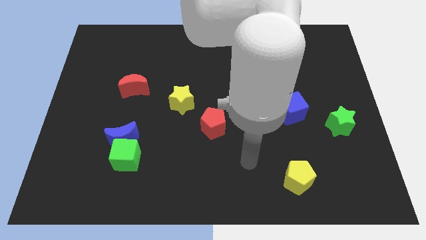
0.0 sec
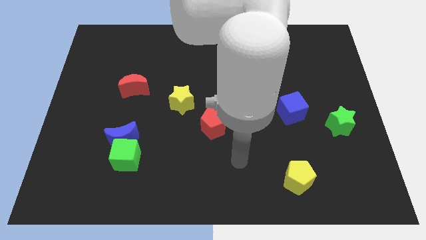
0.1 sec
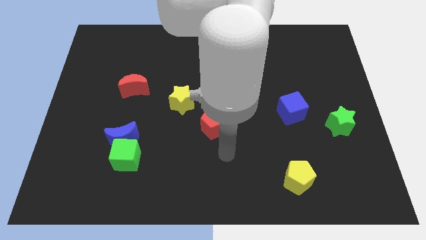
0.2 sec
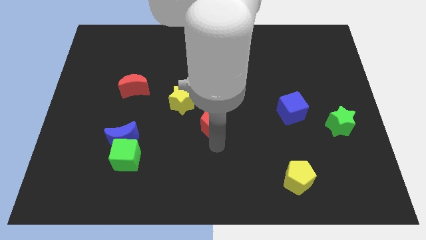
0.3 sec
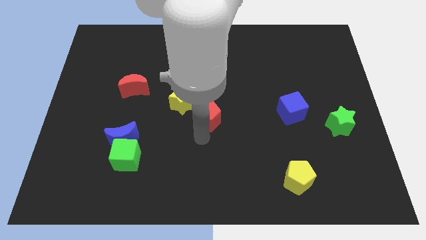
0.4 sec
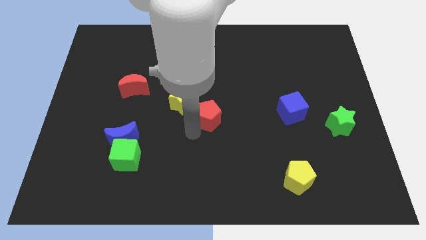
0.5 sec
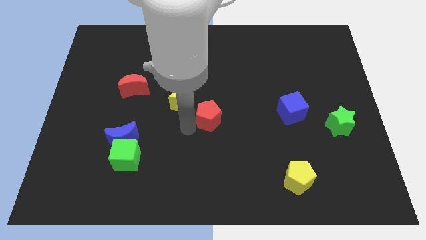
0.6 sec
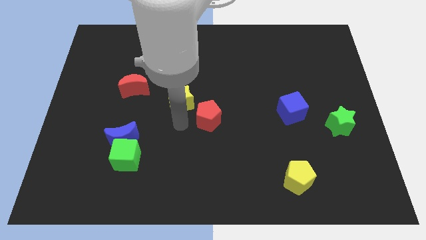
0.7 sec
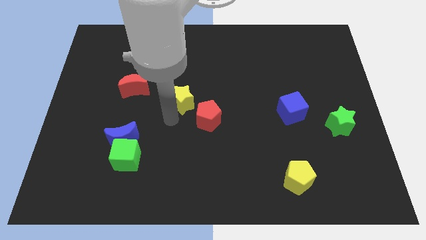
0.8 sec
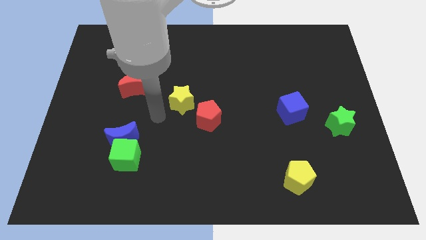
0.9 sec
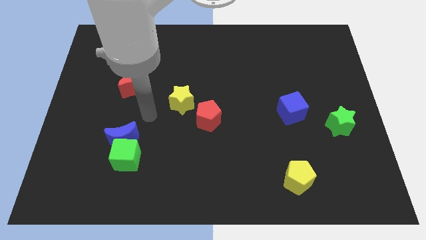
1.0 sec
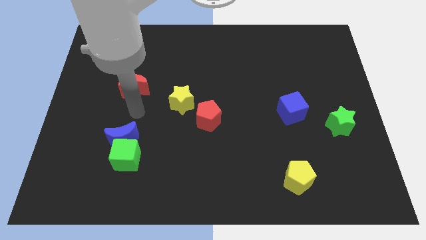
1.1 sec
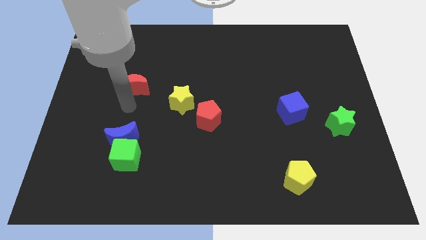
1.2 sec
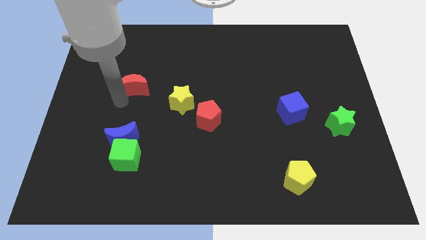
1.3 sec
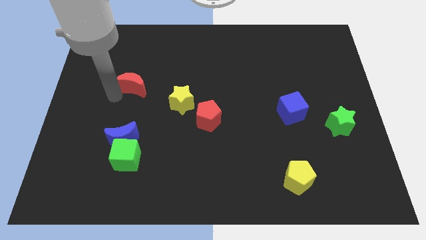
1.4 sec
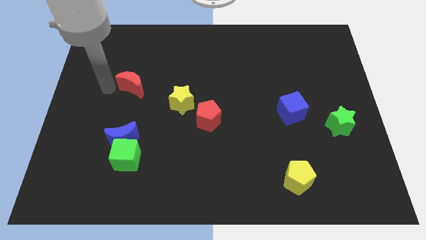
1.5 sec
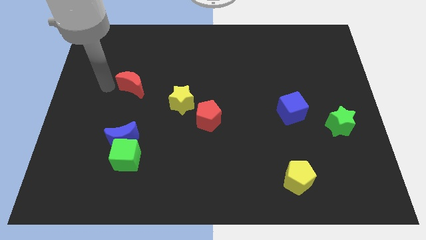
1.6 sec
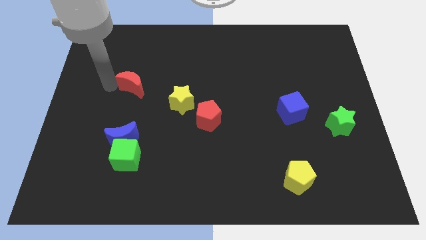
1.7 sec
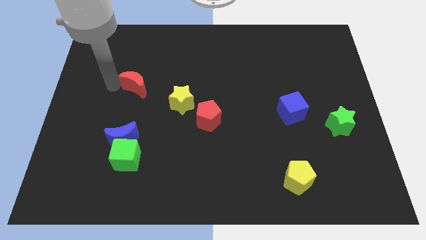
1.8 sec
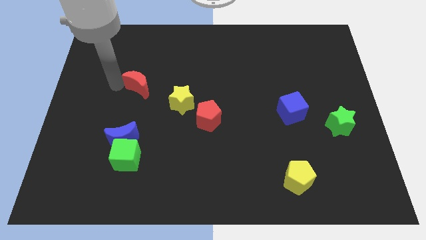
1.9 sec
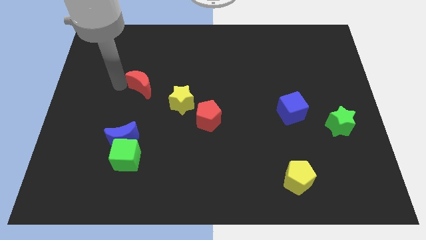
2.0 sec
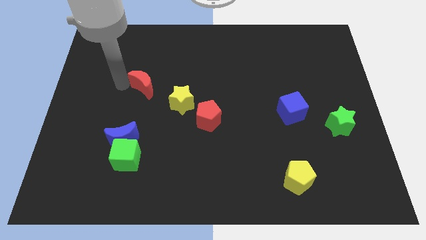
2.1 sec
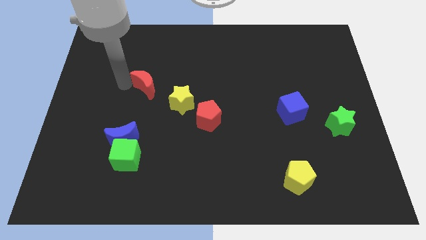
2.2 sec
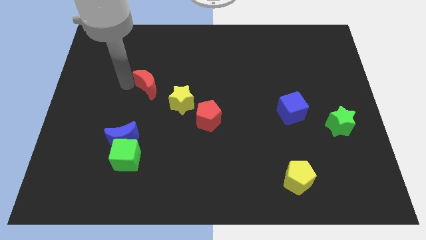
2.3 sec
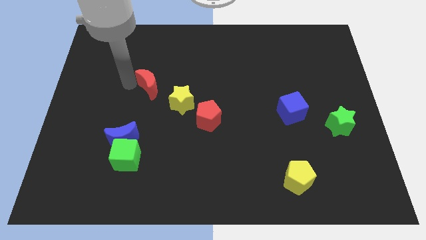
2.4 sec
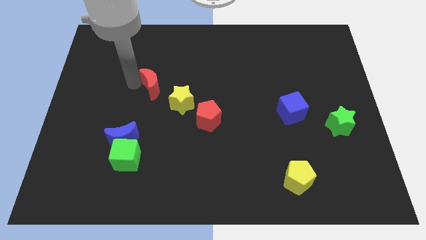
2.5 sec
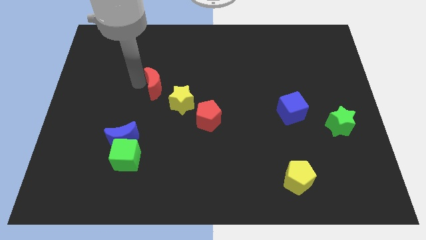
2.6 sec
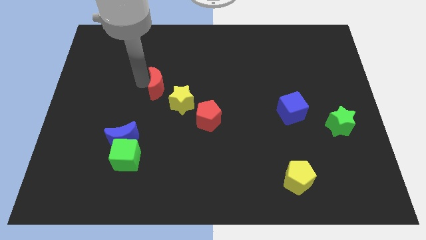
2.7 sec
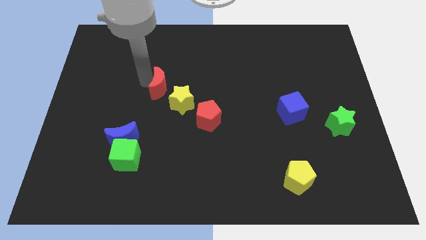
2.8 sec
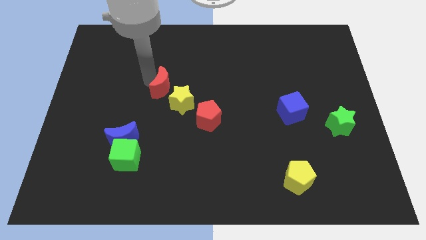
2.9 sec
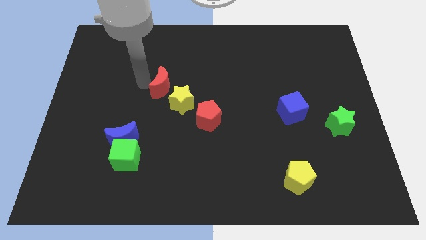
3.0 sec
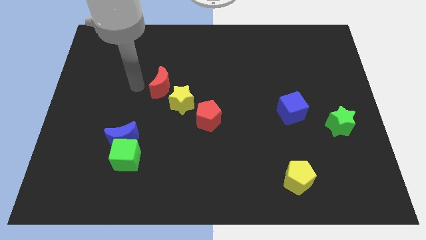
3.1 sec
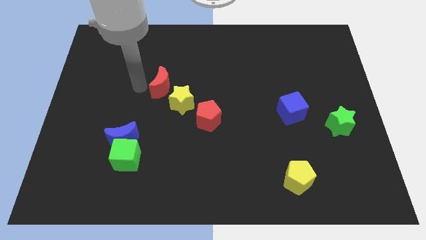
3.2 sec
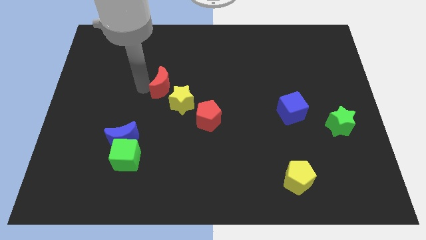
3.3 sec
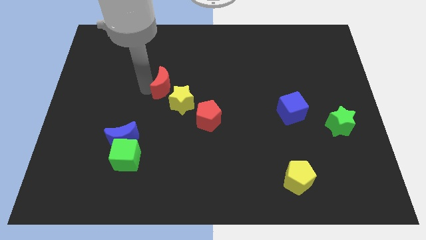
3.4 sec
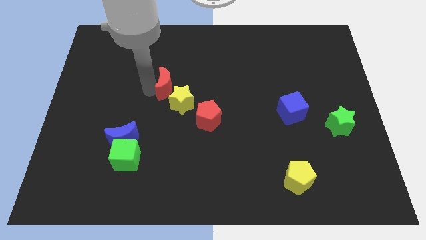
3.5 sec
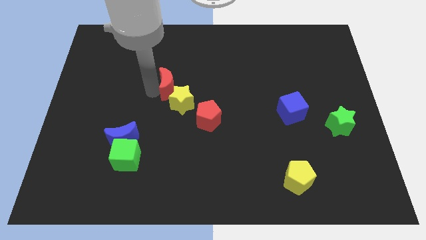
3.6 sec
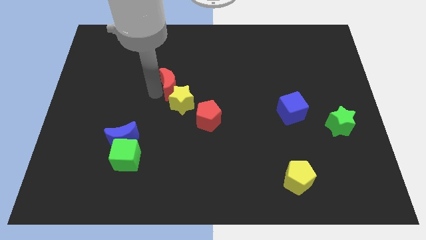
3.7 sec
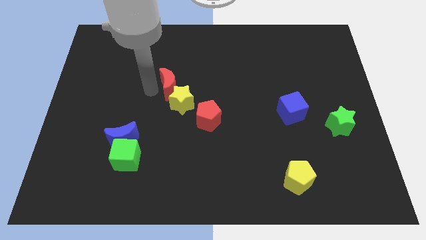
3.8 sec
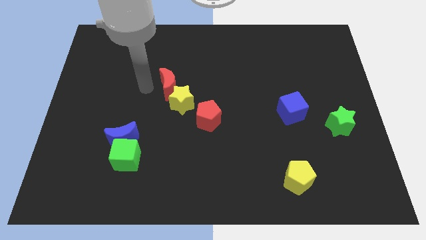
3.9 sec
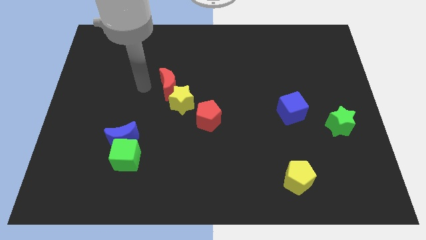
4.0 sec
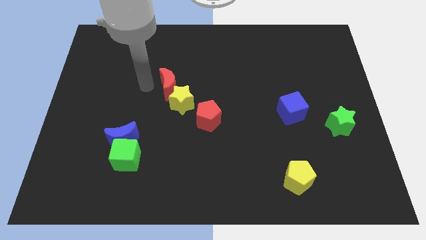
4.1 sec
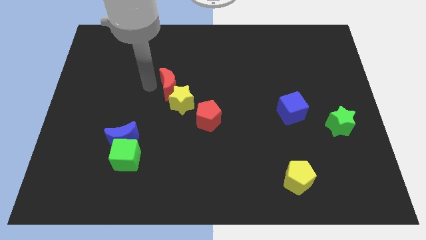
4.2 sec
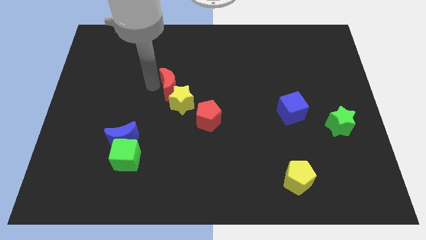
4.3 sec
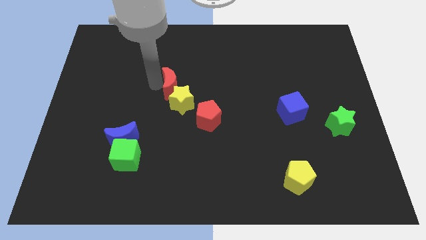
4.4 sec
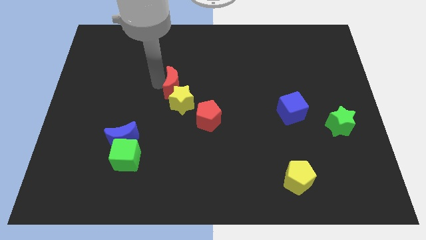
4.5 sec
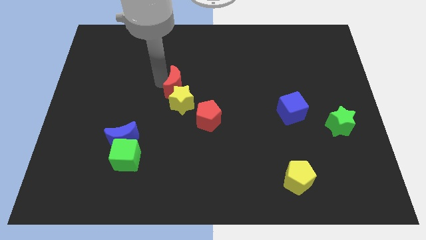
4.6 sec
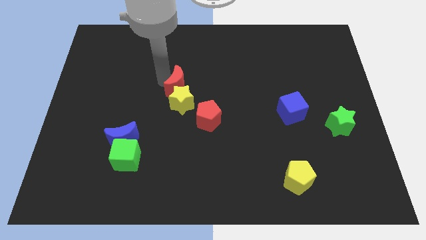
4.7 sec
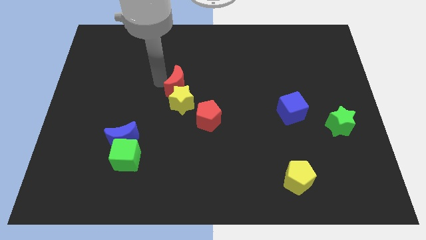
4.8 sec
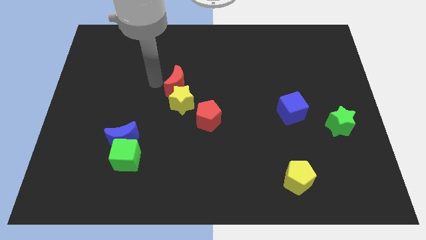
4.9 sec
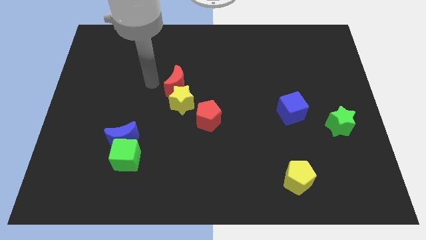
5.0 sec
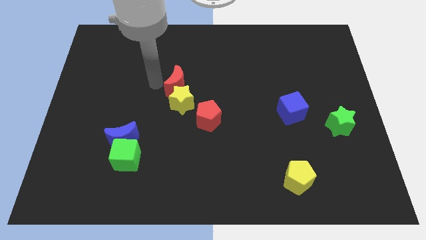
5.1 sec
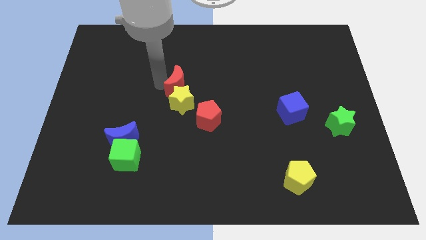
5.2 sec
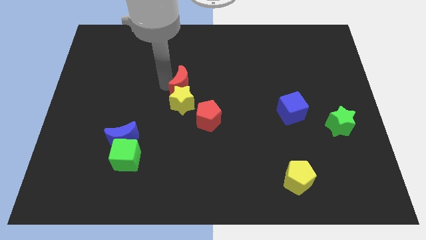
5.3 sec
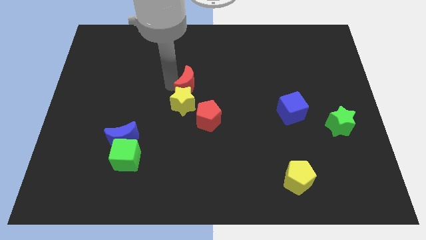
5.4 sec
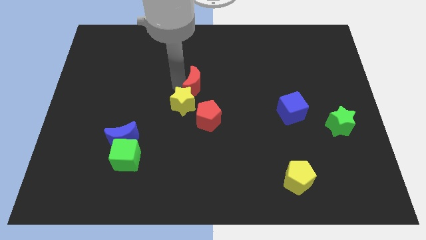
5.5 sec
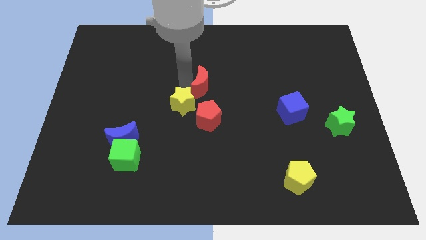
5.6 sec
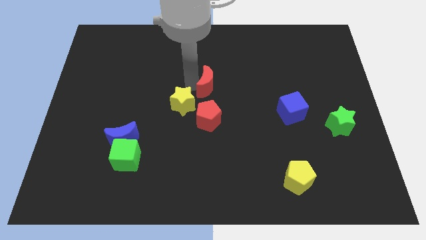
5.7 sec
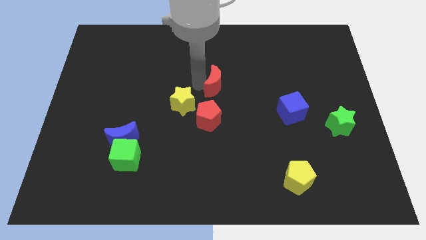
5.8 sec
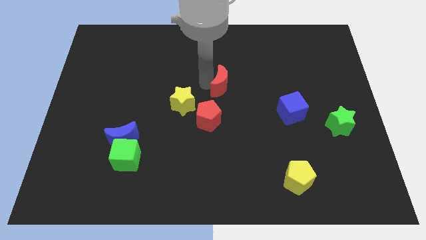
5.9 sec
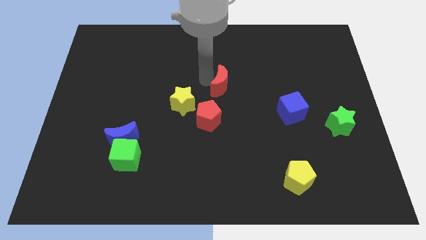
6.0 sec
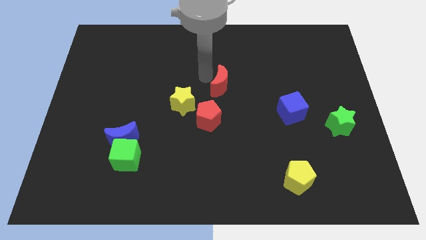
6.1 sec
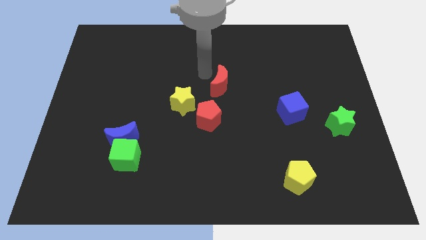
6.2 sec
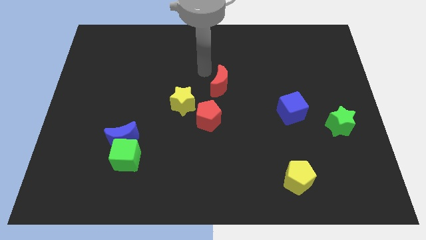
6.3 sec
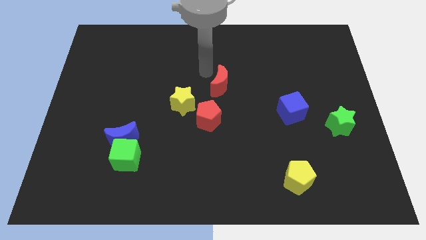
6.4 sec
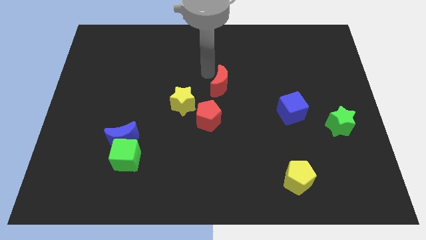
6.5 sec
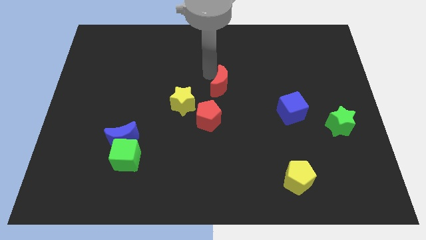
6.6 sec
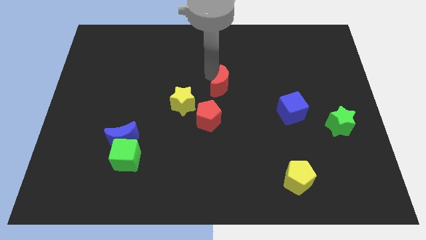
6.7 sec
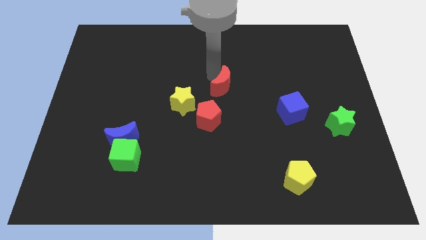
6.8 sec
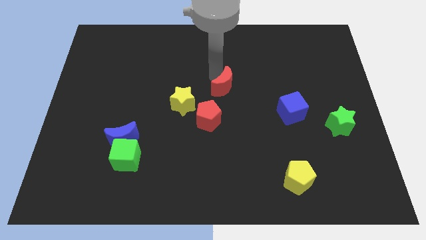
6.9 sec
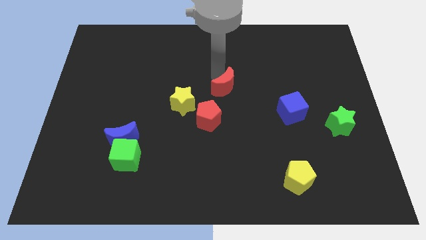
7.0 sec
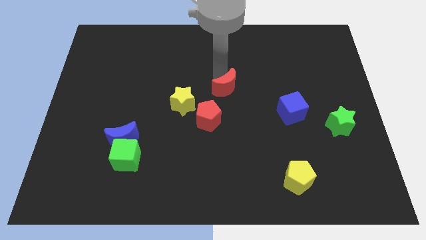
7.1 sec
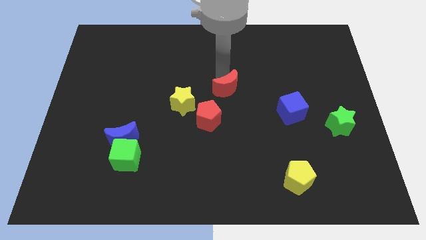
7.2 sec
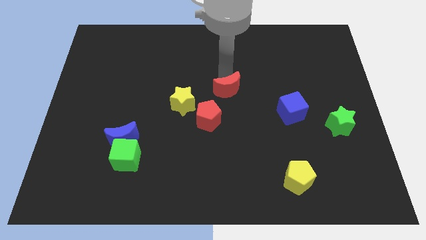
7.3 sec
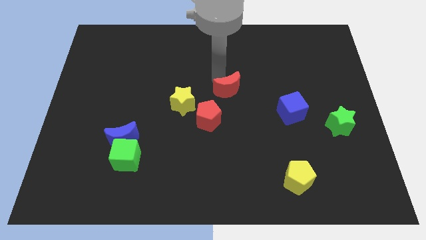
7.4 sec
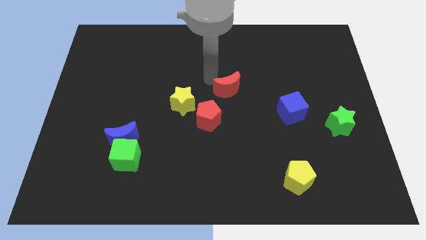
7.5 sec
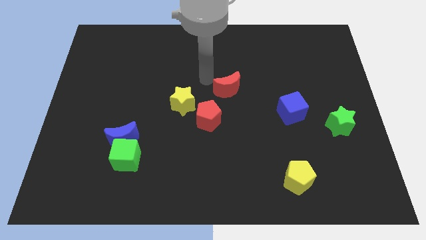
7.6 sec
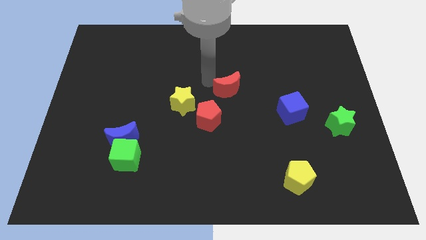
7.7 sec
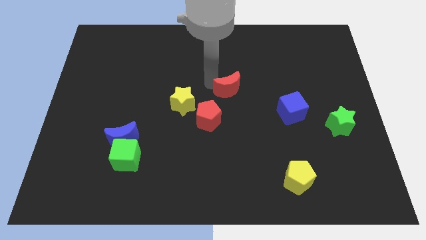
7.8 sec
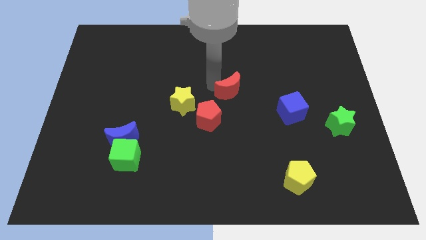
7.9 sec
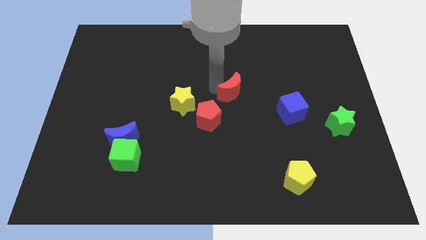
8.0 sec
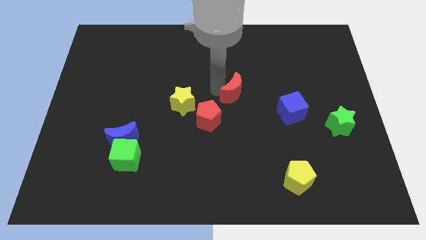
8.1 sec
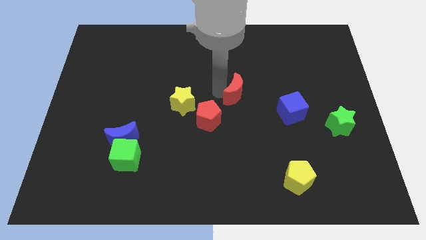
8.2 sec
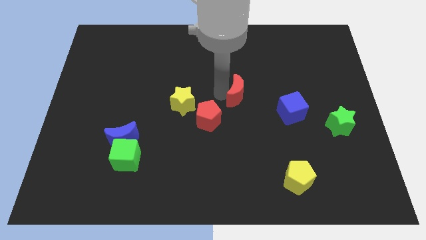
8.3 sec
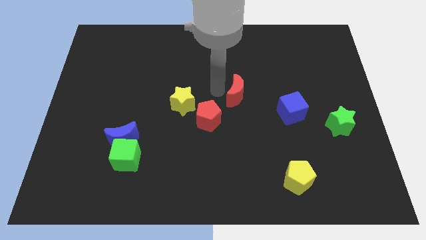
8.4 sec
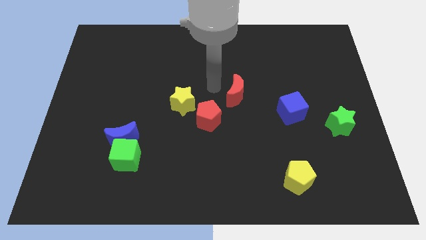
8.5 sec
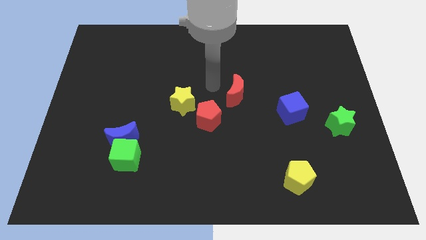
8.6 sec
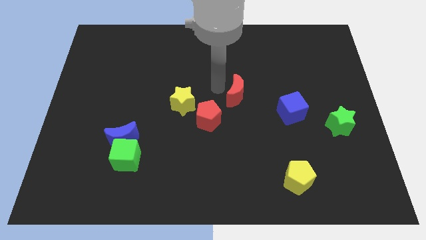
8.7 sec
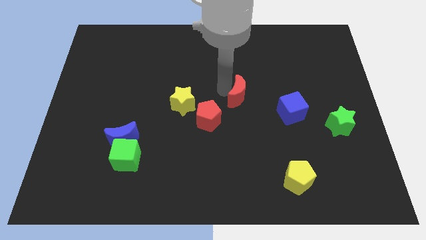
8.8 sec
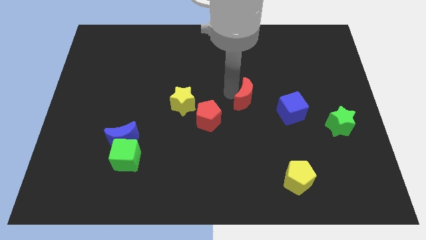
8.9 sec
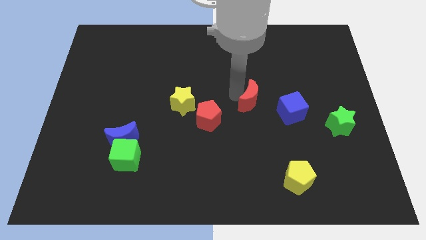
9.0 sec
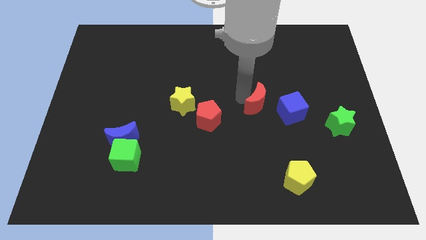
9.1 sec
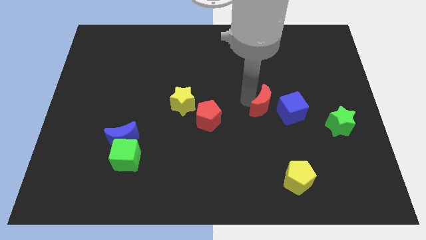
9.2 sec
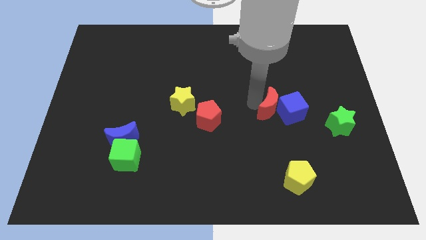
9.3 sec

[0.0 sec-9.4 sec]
push the red moon close to the blue cube
